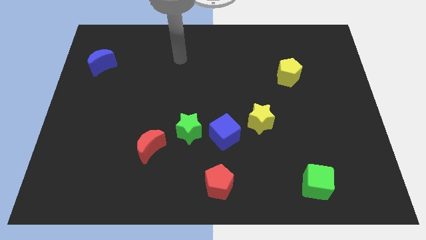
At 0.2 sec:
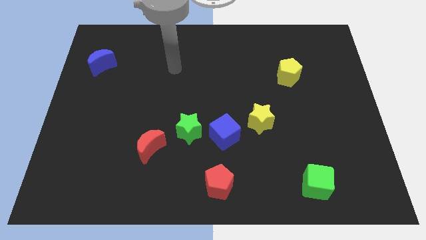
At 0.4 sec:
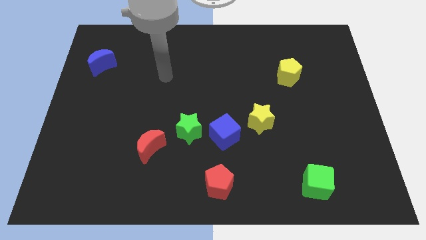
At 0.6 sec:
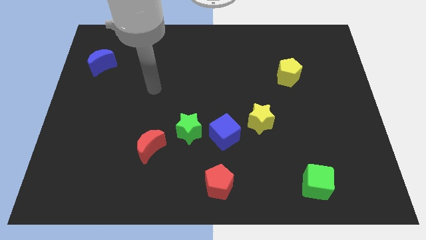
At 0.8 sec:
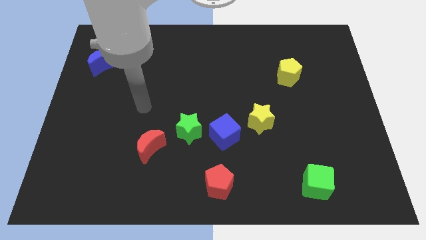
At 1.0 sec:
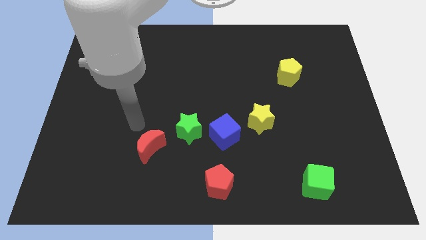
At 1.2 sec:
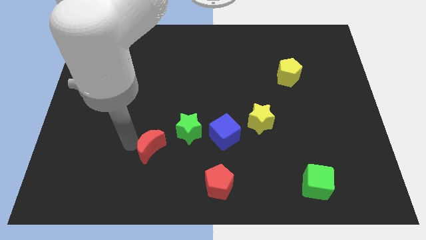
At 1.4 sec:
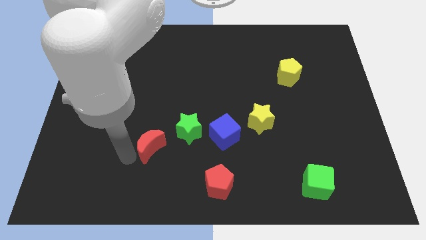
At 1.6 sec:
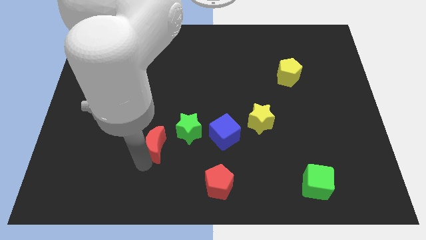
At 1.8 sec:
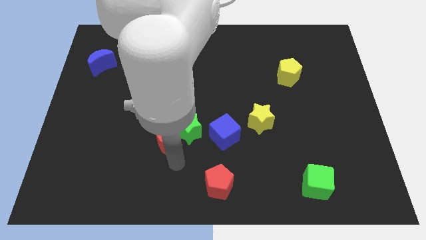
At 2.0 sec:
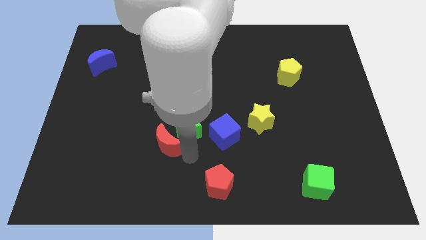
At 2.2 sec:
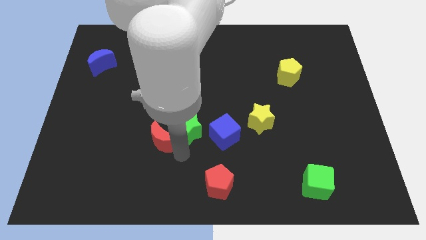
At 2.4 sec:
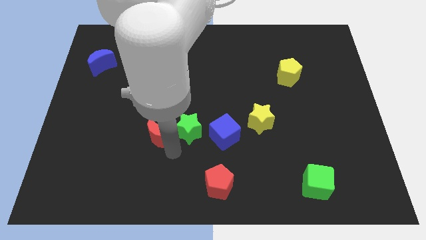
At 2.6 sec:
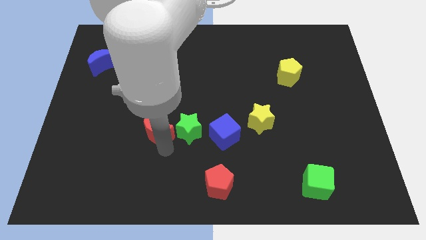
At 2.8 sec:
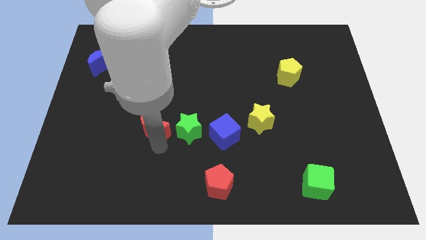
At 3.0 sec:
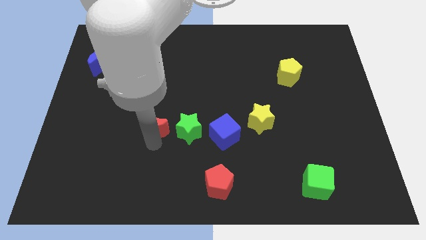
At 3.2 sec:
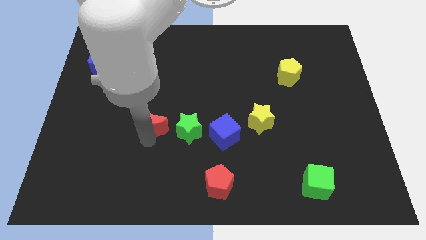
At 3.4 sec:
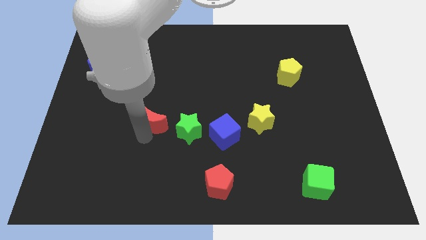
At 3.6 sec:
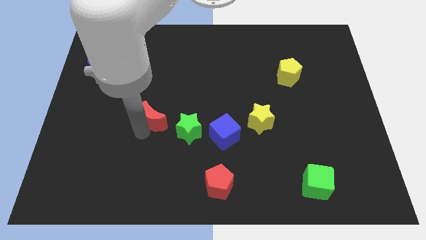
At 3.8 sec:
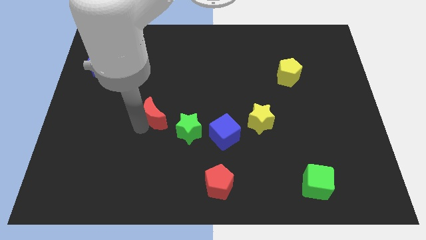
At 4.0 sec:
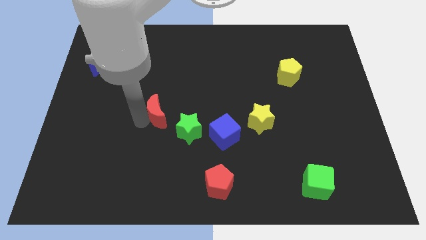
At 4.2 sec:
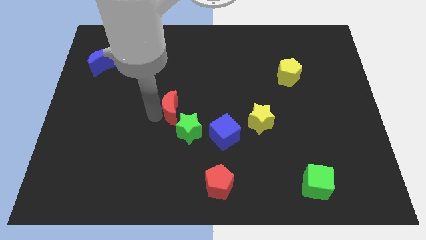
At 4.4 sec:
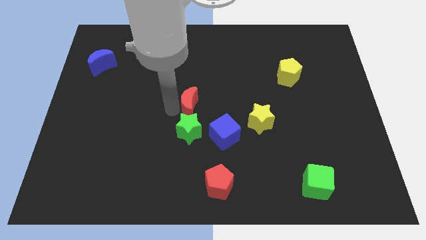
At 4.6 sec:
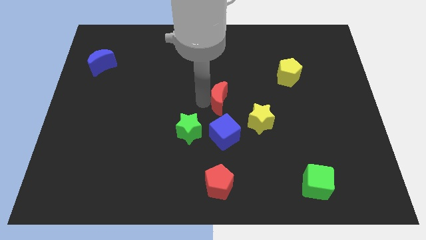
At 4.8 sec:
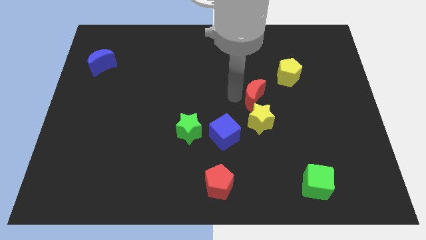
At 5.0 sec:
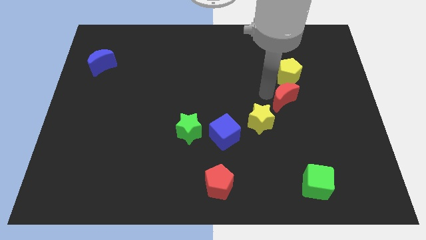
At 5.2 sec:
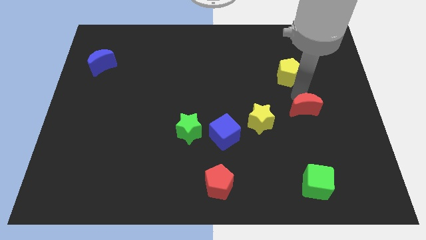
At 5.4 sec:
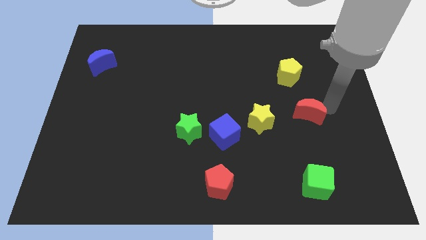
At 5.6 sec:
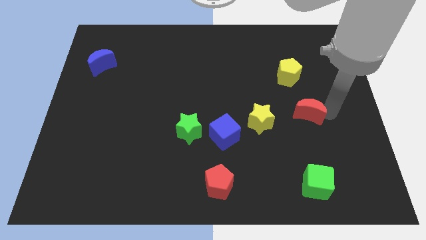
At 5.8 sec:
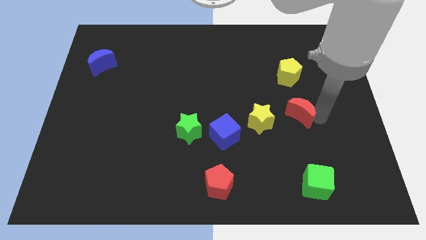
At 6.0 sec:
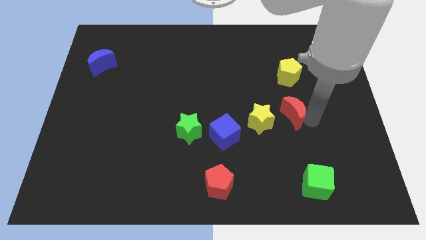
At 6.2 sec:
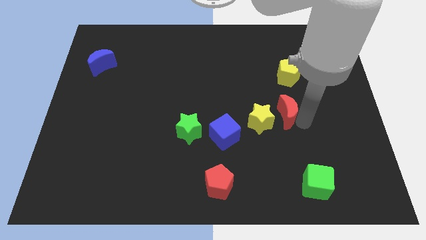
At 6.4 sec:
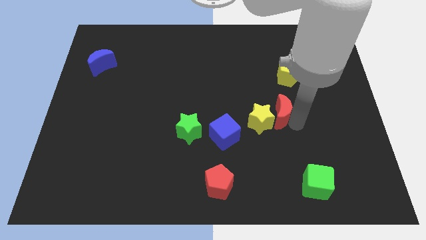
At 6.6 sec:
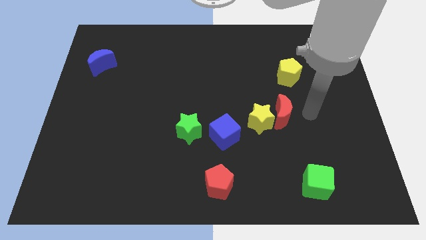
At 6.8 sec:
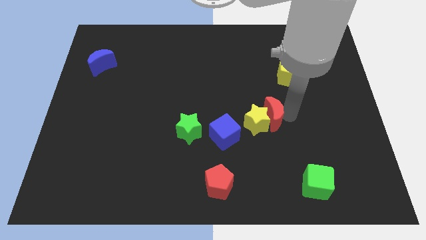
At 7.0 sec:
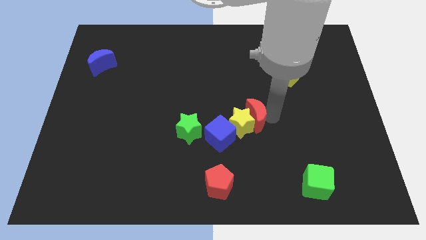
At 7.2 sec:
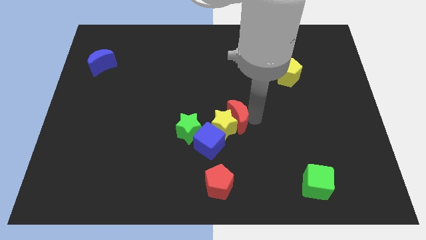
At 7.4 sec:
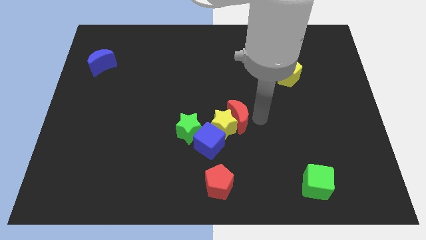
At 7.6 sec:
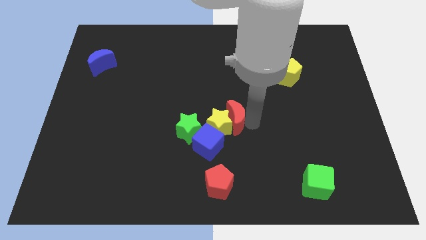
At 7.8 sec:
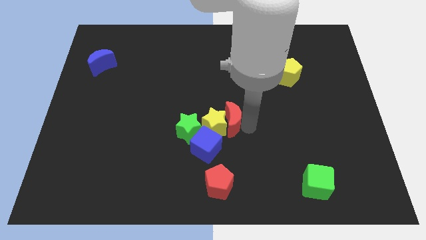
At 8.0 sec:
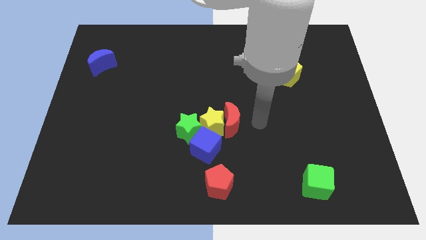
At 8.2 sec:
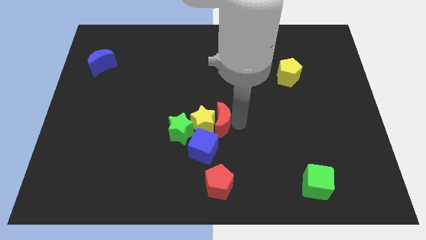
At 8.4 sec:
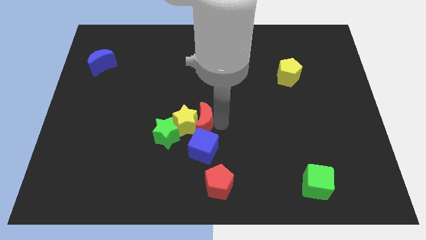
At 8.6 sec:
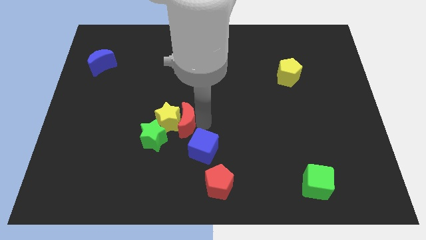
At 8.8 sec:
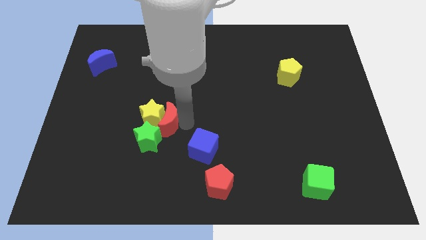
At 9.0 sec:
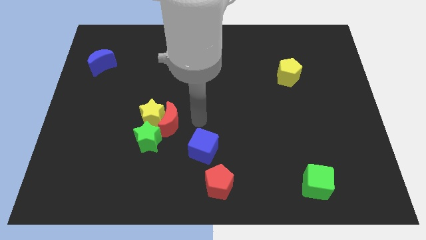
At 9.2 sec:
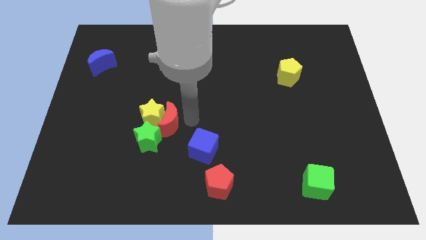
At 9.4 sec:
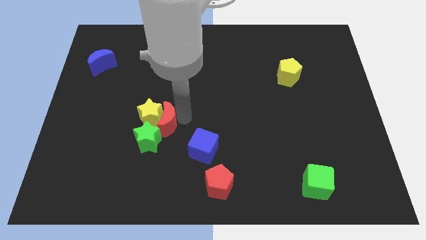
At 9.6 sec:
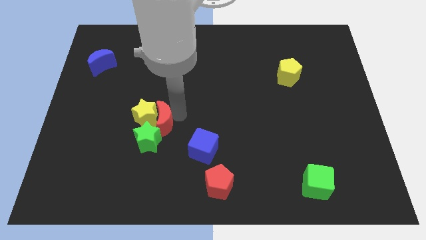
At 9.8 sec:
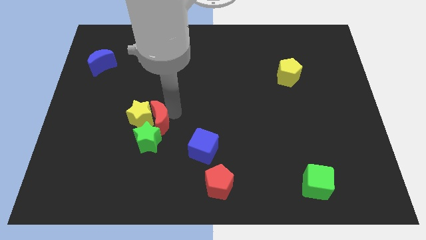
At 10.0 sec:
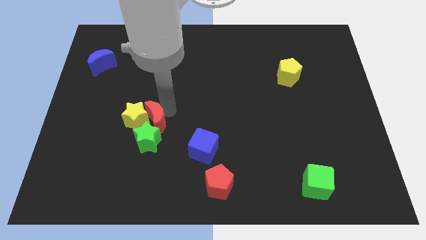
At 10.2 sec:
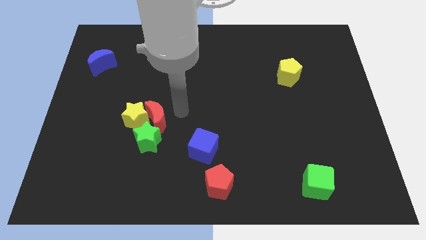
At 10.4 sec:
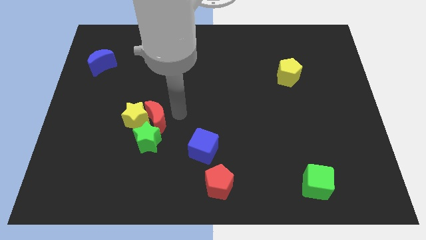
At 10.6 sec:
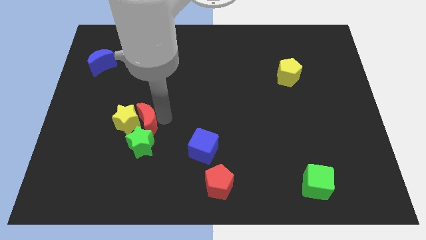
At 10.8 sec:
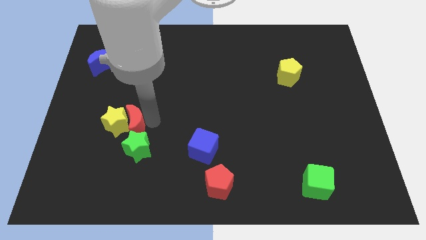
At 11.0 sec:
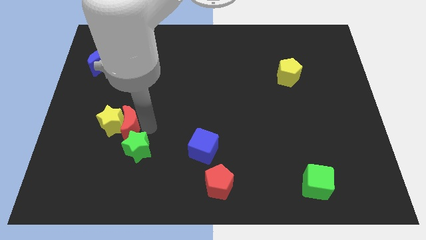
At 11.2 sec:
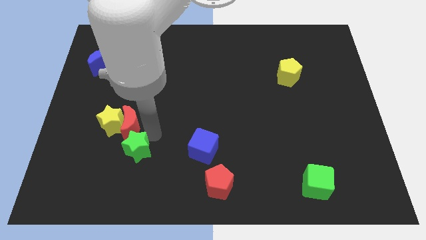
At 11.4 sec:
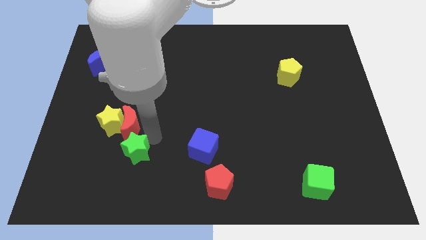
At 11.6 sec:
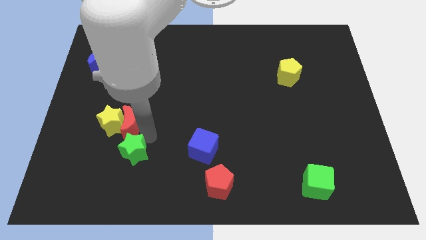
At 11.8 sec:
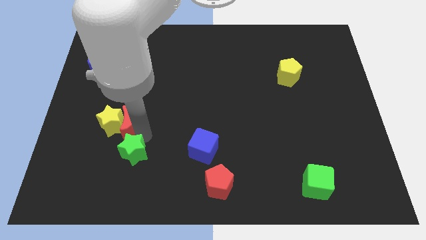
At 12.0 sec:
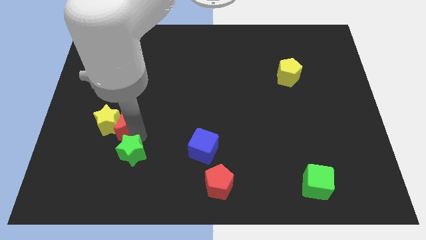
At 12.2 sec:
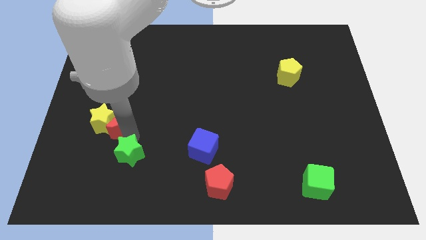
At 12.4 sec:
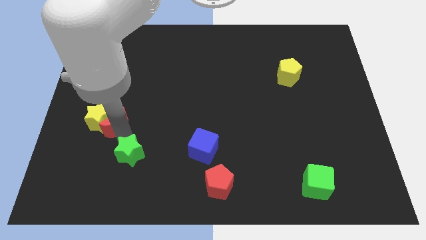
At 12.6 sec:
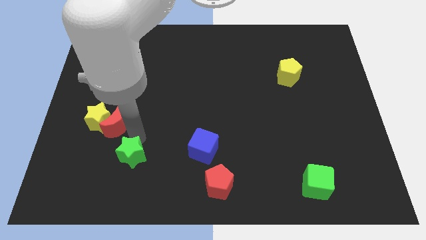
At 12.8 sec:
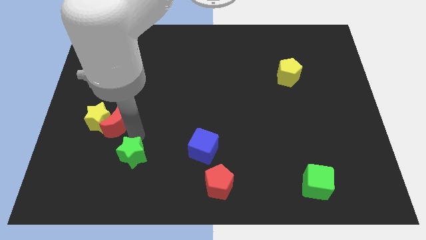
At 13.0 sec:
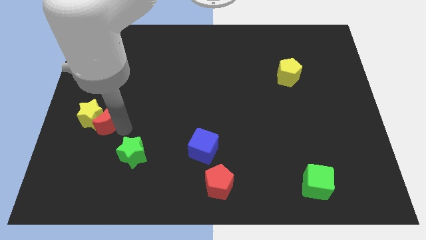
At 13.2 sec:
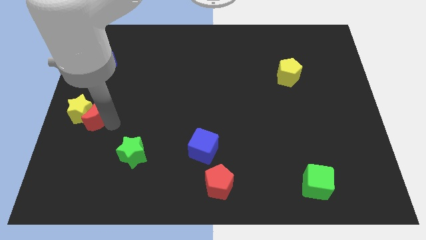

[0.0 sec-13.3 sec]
put the red moon to the left side
